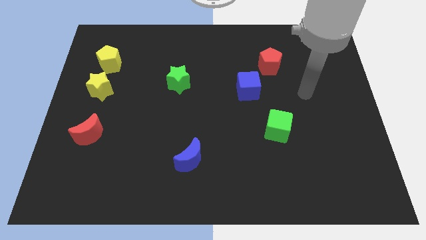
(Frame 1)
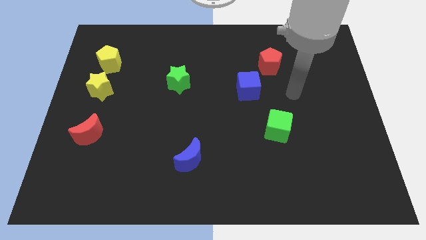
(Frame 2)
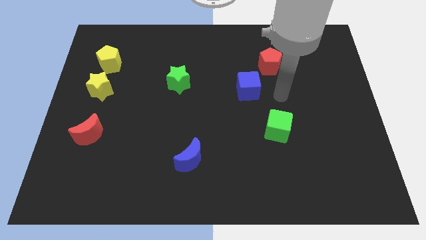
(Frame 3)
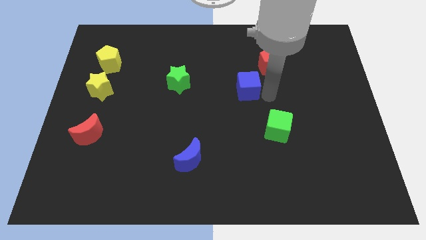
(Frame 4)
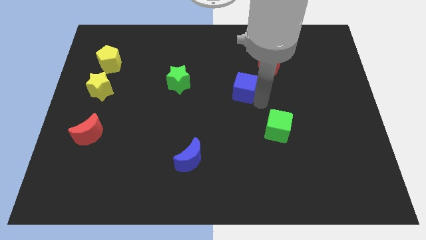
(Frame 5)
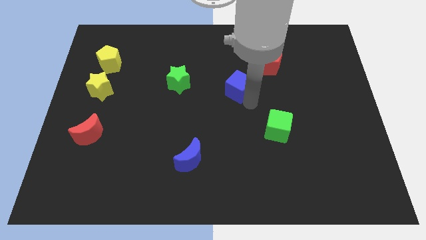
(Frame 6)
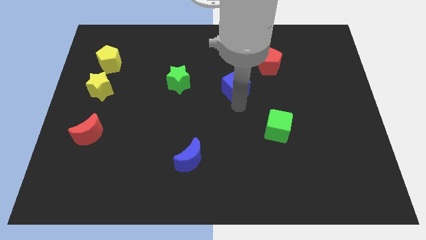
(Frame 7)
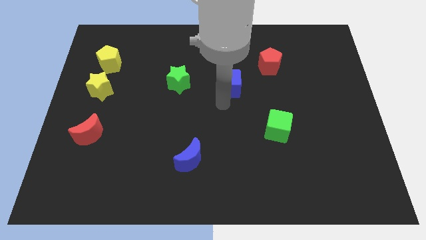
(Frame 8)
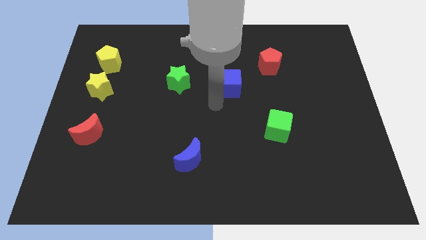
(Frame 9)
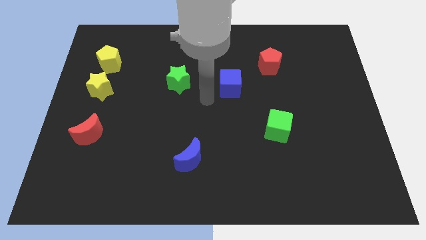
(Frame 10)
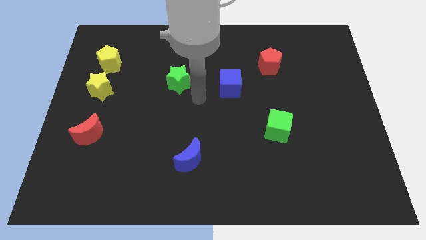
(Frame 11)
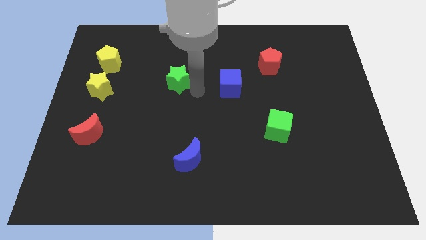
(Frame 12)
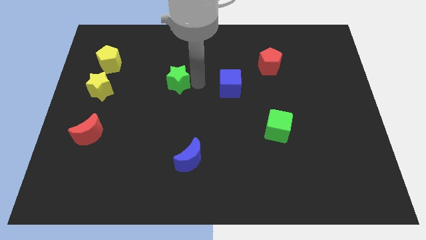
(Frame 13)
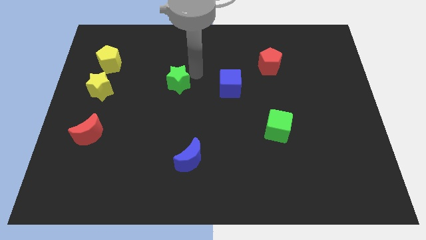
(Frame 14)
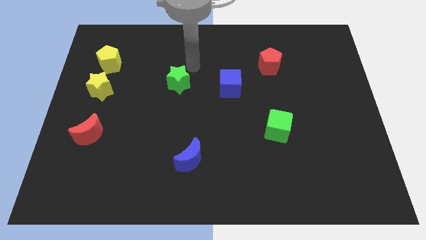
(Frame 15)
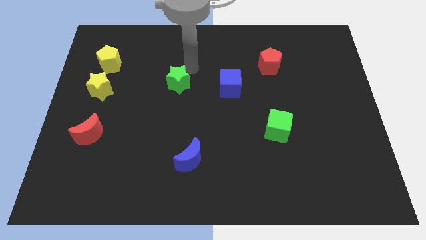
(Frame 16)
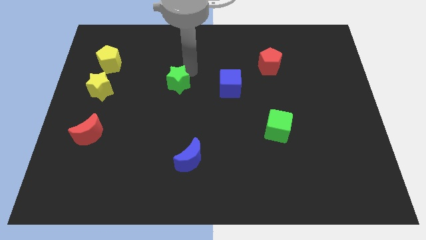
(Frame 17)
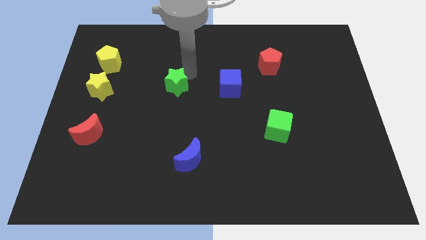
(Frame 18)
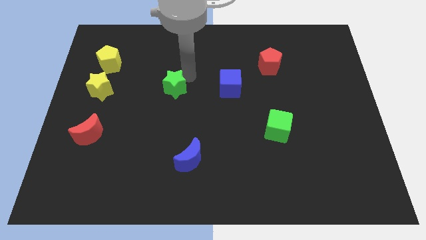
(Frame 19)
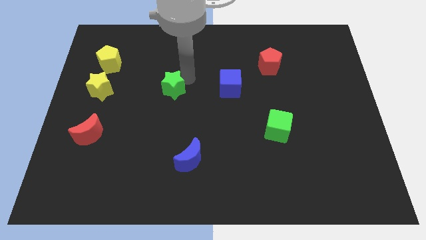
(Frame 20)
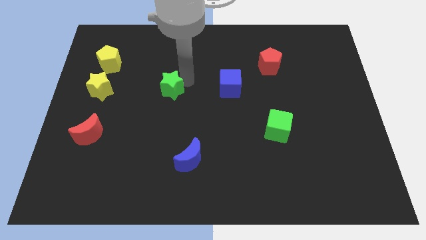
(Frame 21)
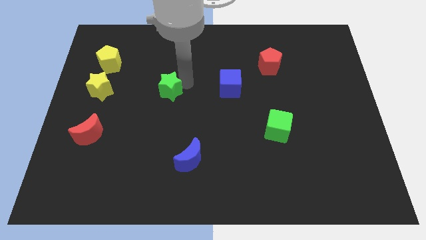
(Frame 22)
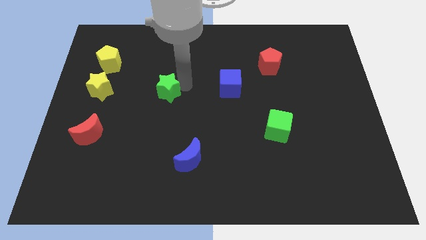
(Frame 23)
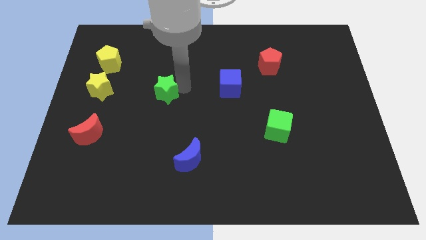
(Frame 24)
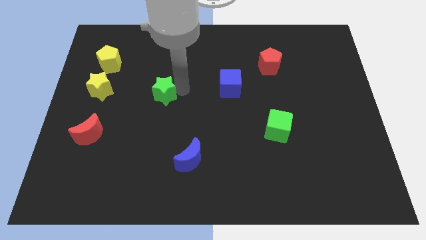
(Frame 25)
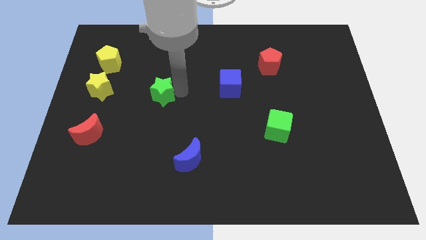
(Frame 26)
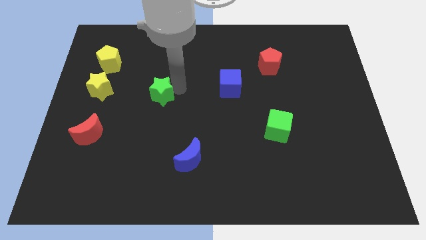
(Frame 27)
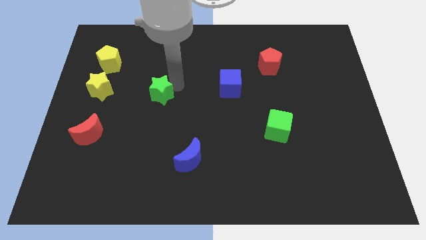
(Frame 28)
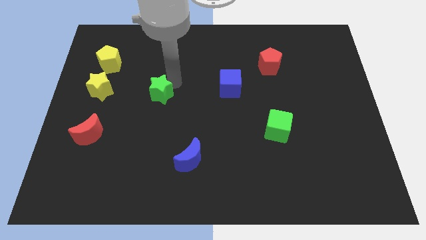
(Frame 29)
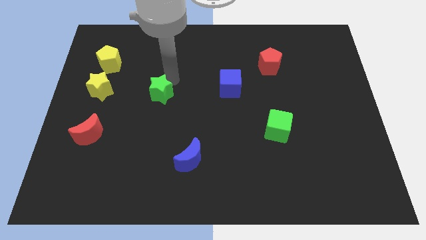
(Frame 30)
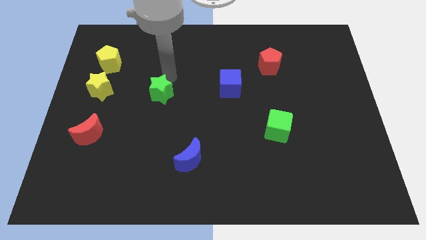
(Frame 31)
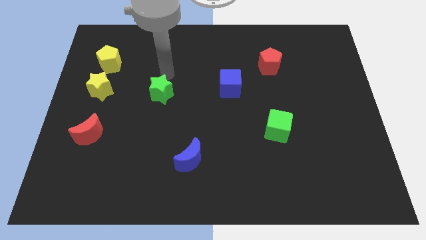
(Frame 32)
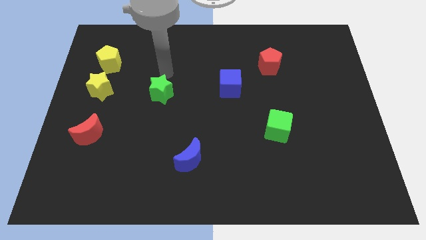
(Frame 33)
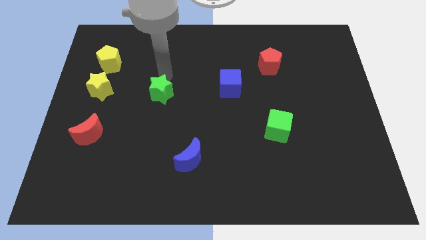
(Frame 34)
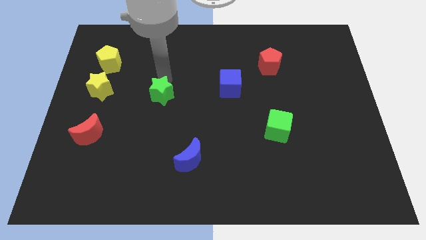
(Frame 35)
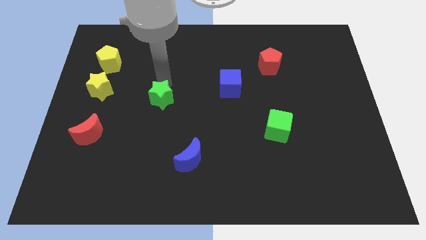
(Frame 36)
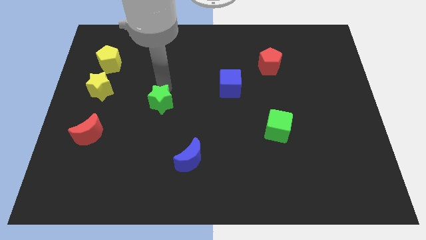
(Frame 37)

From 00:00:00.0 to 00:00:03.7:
move the green star a little diagonally downwards and left

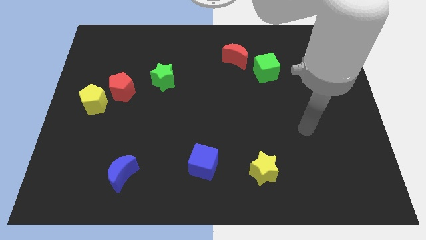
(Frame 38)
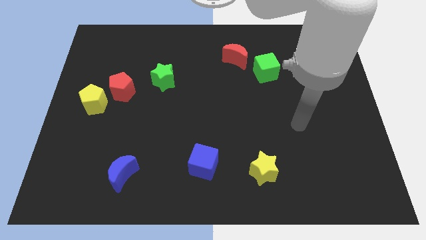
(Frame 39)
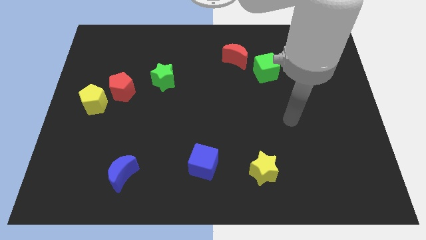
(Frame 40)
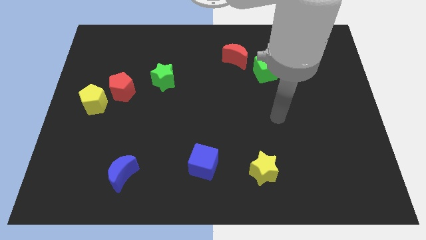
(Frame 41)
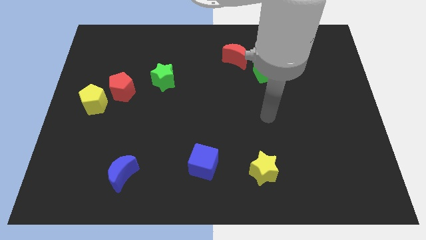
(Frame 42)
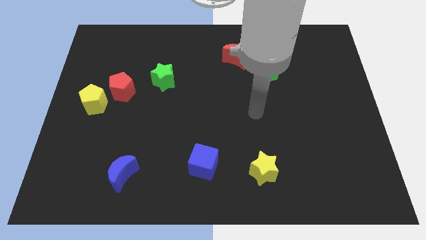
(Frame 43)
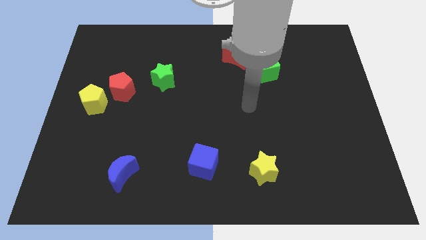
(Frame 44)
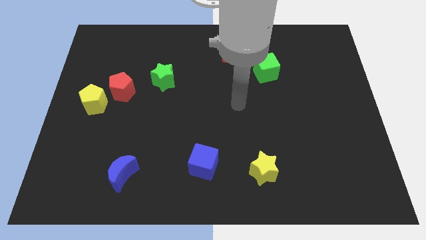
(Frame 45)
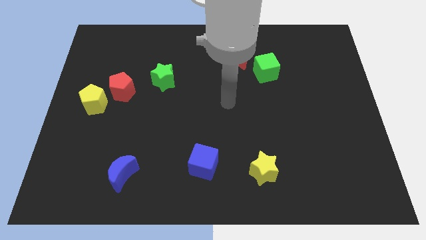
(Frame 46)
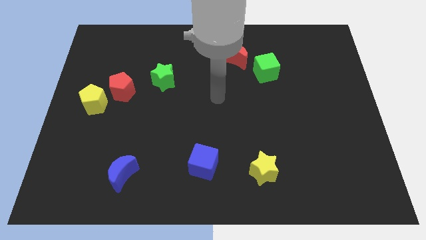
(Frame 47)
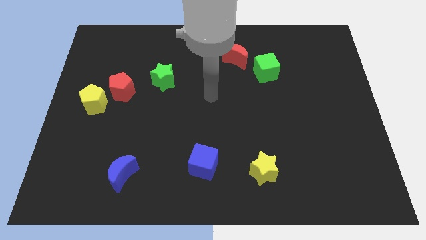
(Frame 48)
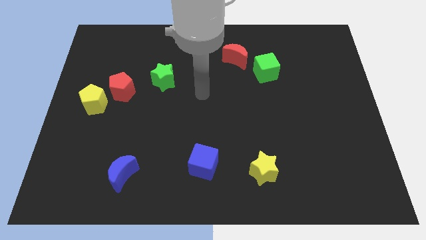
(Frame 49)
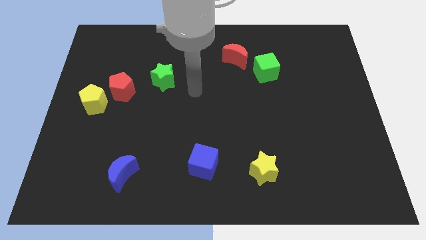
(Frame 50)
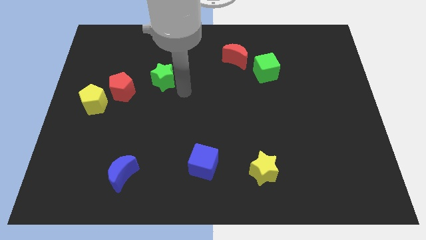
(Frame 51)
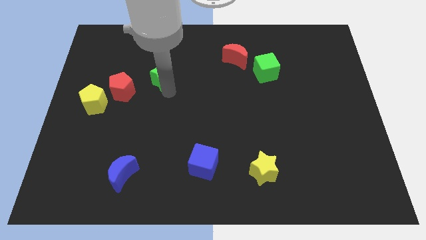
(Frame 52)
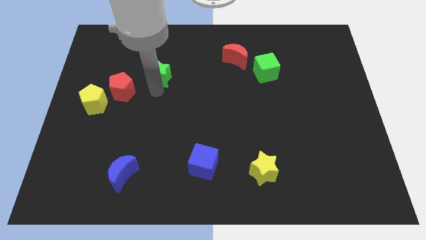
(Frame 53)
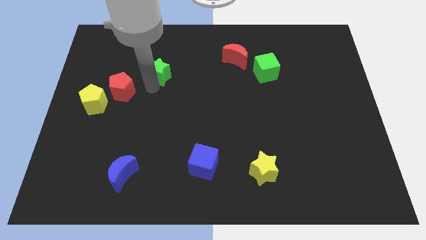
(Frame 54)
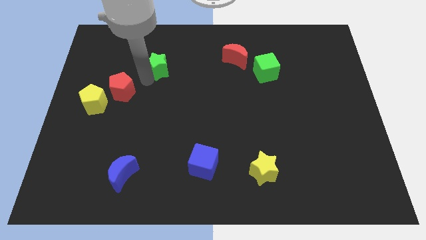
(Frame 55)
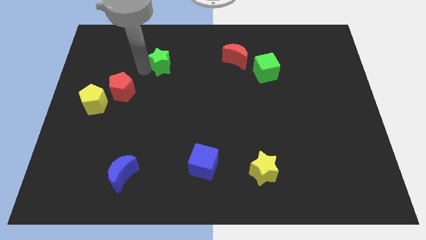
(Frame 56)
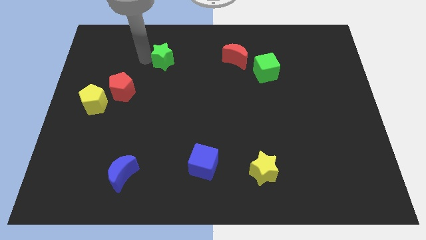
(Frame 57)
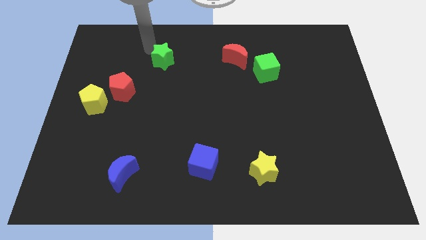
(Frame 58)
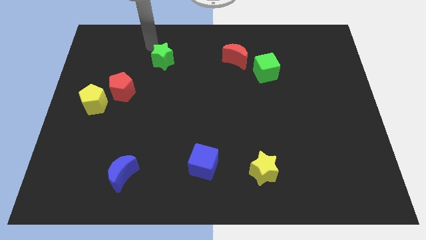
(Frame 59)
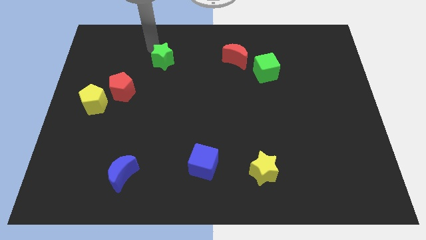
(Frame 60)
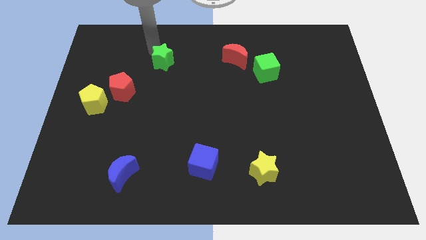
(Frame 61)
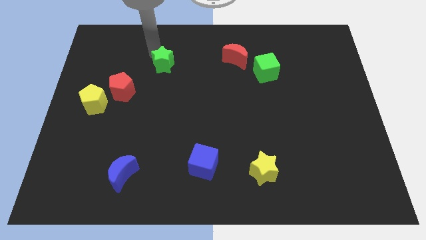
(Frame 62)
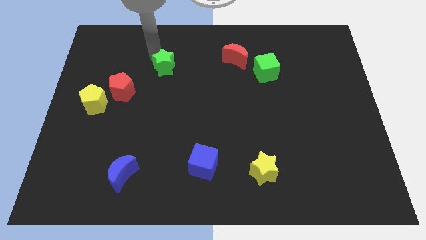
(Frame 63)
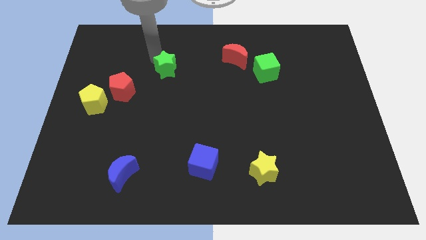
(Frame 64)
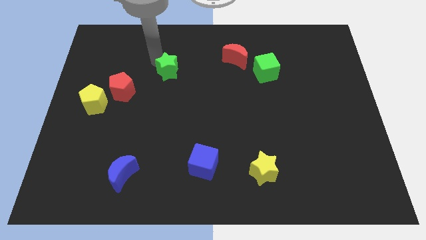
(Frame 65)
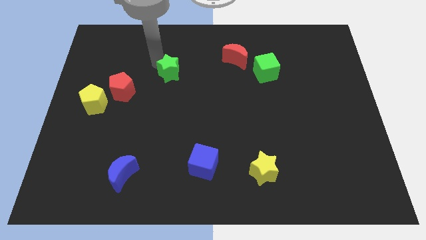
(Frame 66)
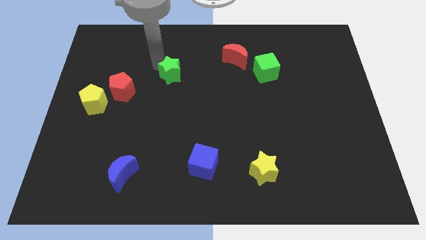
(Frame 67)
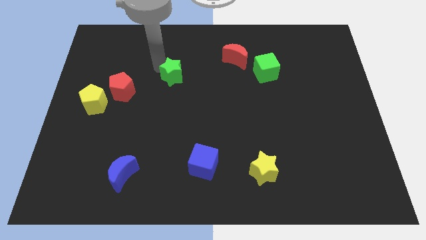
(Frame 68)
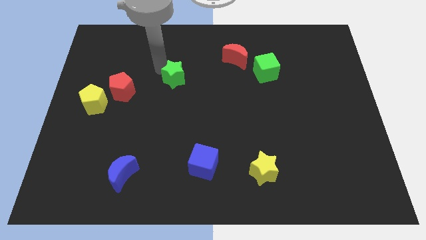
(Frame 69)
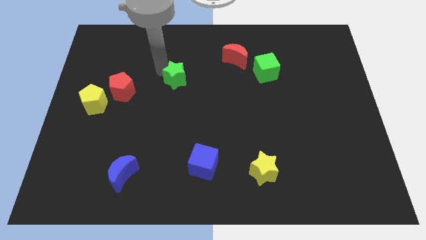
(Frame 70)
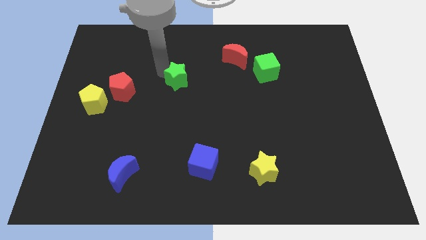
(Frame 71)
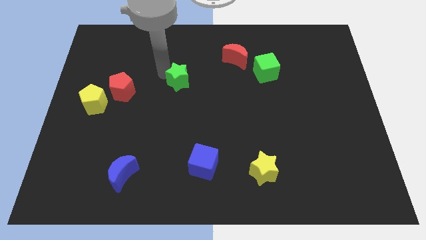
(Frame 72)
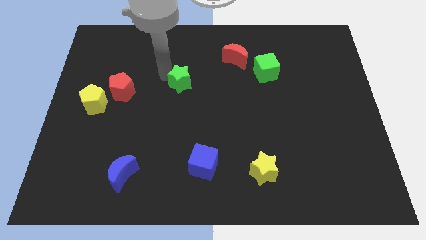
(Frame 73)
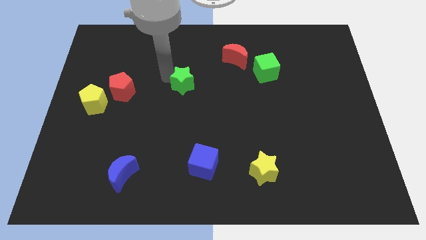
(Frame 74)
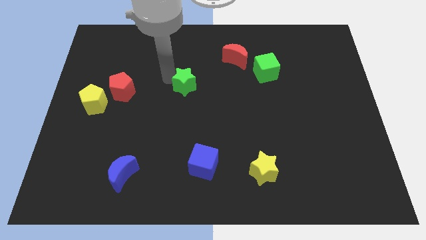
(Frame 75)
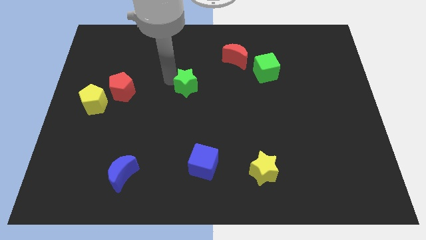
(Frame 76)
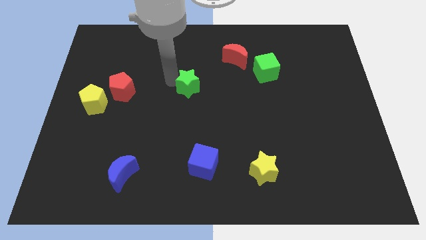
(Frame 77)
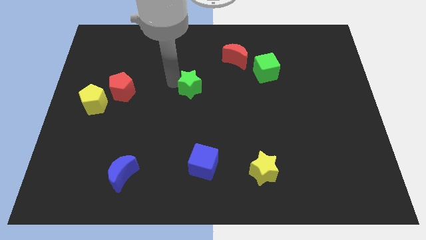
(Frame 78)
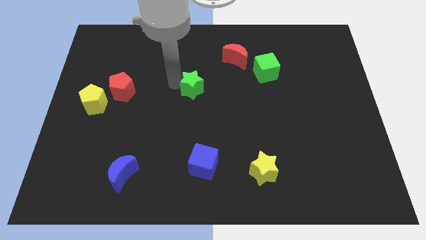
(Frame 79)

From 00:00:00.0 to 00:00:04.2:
slide the green star to the right slightly
